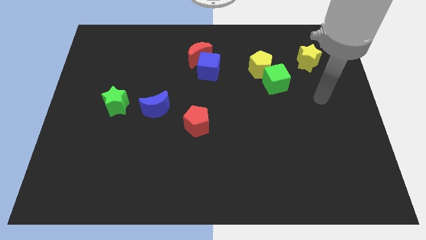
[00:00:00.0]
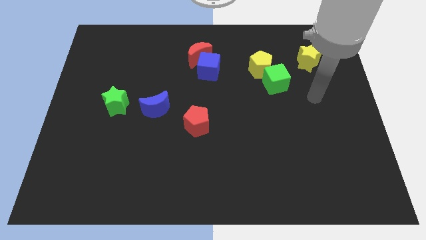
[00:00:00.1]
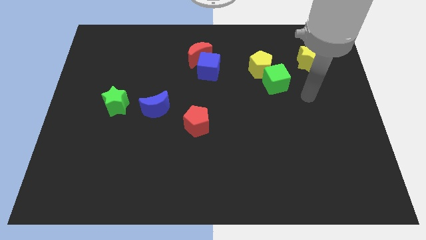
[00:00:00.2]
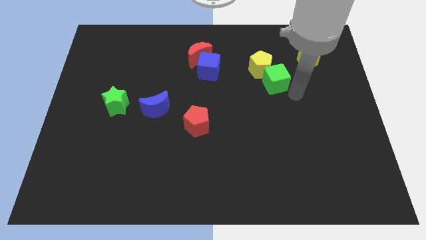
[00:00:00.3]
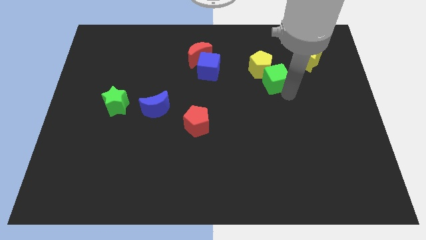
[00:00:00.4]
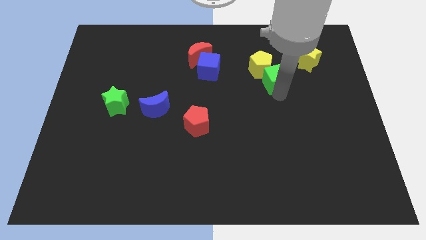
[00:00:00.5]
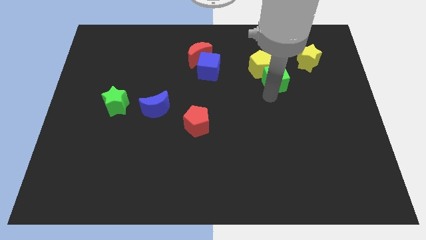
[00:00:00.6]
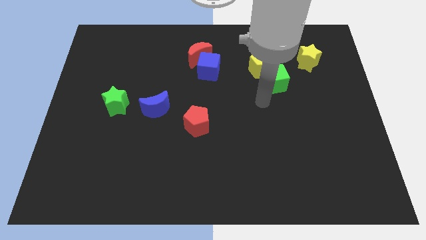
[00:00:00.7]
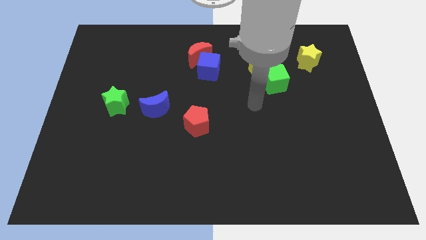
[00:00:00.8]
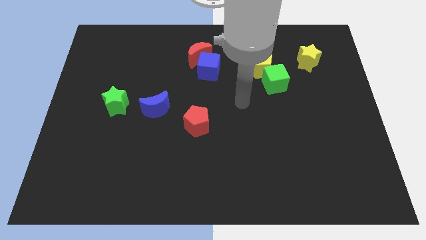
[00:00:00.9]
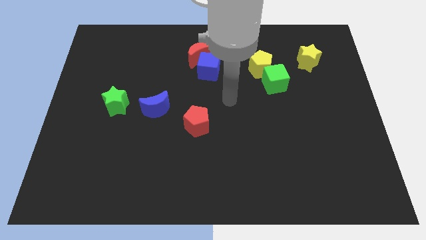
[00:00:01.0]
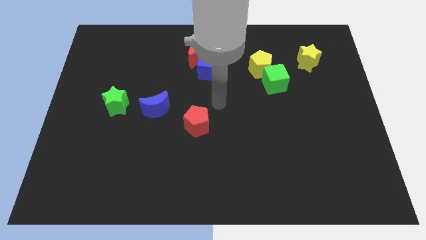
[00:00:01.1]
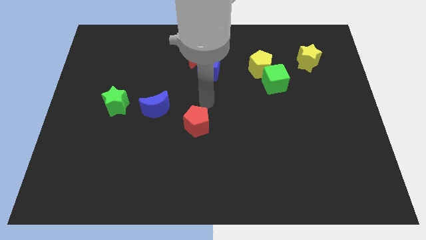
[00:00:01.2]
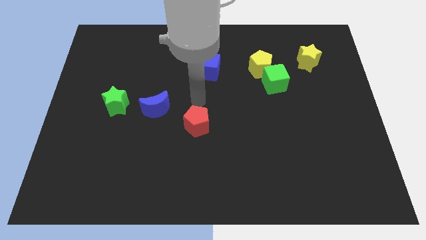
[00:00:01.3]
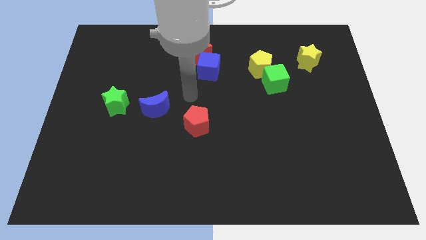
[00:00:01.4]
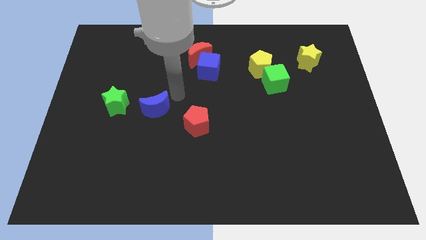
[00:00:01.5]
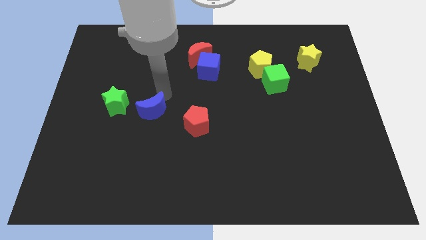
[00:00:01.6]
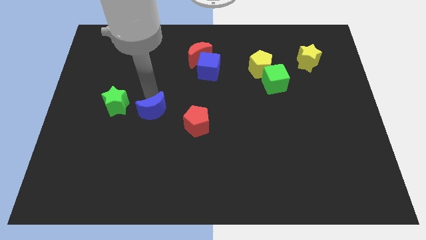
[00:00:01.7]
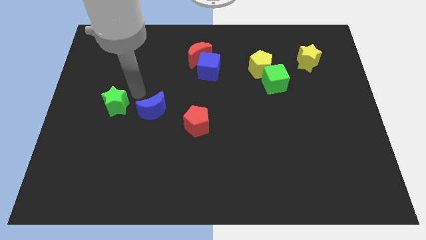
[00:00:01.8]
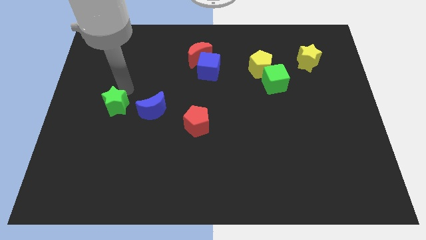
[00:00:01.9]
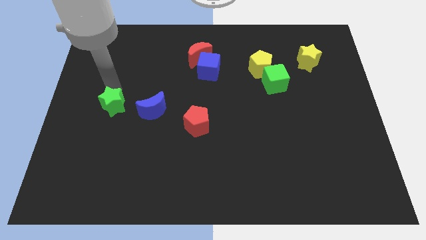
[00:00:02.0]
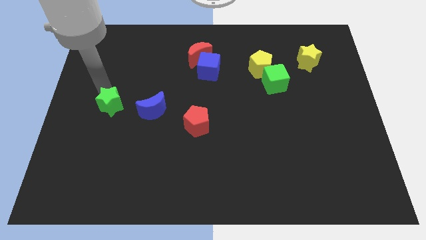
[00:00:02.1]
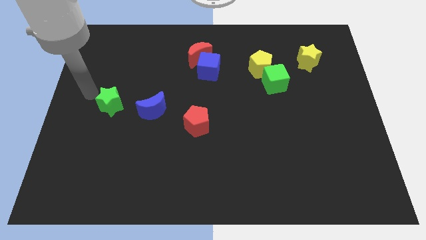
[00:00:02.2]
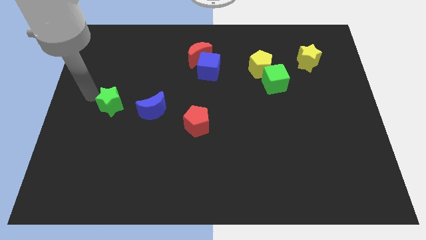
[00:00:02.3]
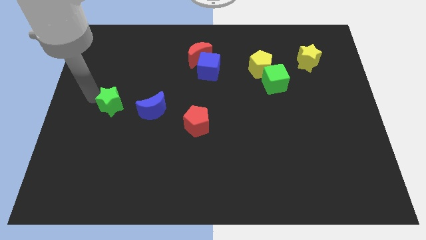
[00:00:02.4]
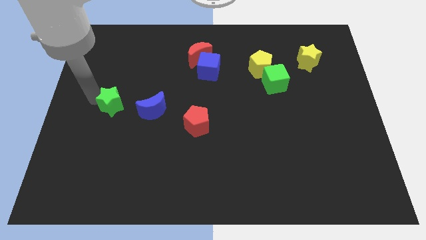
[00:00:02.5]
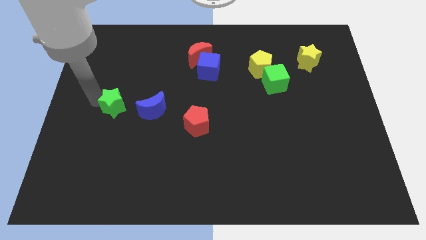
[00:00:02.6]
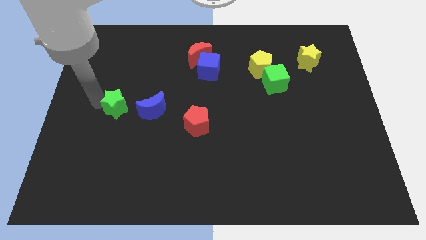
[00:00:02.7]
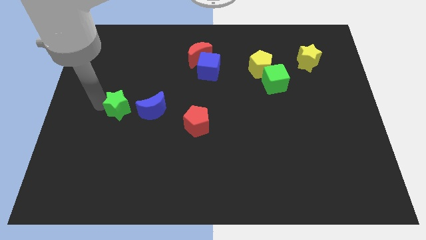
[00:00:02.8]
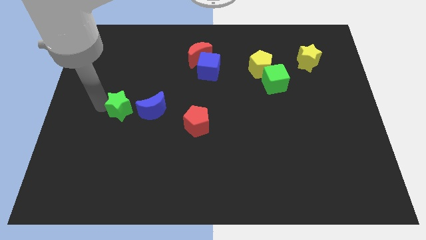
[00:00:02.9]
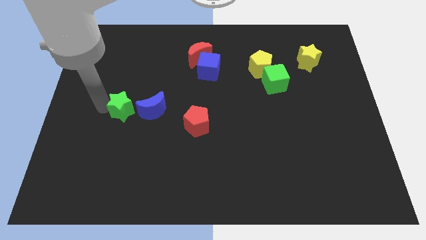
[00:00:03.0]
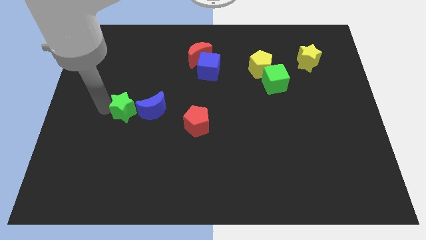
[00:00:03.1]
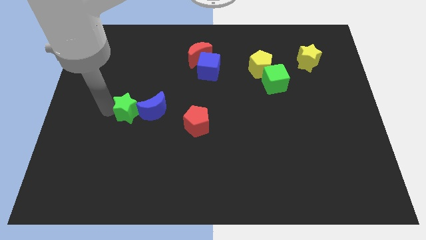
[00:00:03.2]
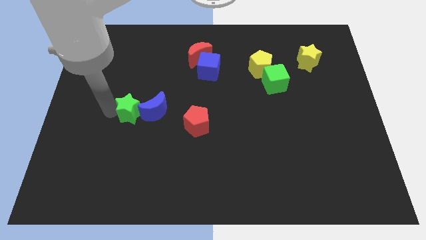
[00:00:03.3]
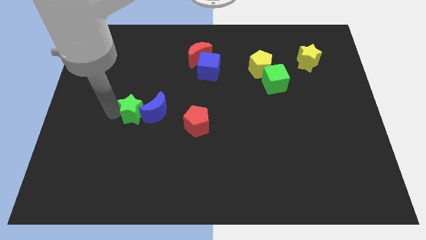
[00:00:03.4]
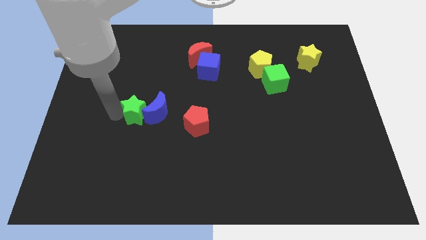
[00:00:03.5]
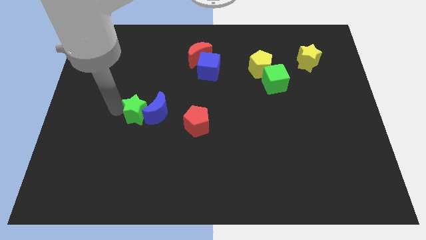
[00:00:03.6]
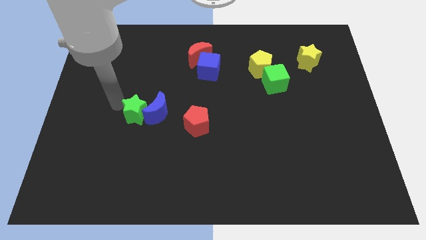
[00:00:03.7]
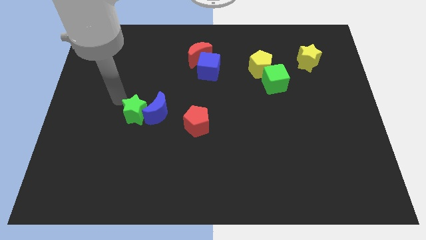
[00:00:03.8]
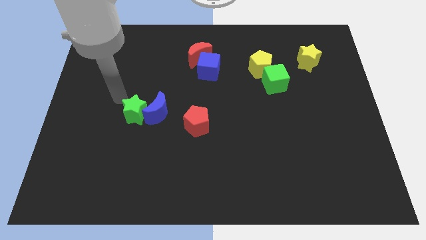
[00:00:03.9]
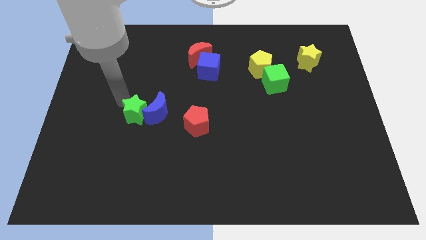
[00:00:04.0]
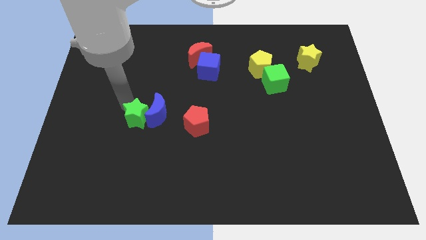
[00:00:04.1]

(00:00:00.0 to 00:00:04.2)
move the green star a little bit down and to the right diagonally

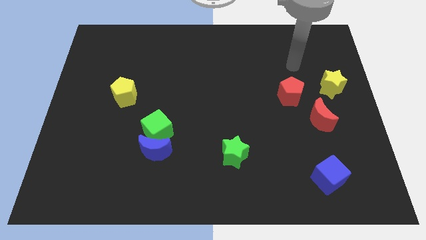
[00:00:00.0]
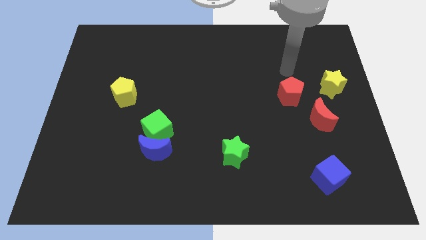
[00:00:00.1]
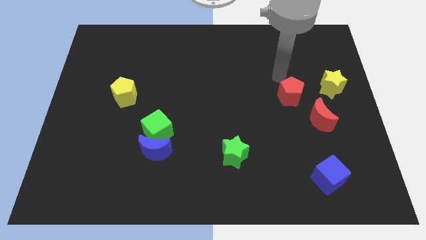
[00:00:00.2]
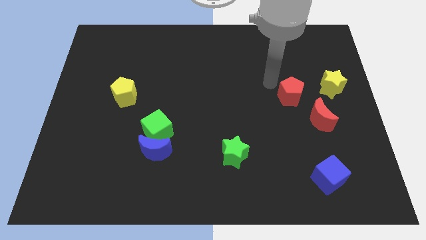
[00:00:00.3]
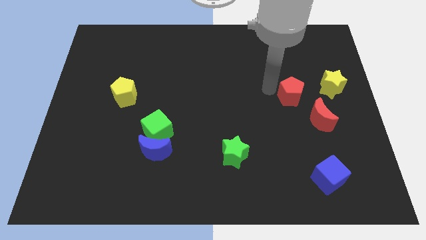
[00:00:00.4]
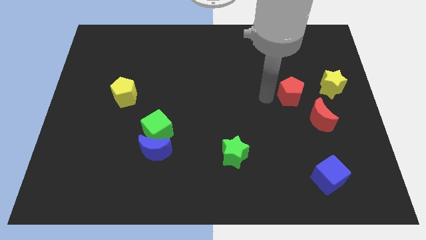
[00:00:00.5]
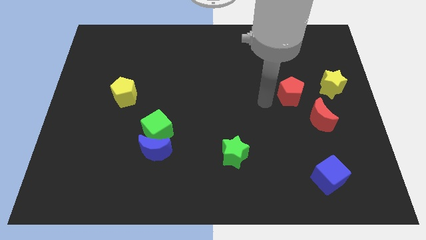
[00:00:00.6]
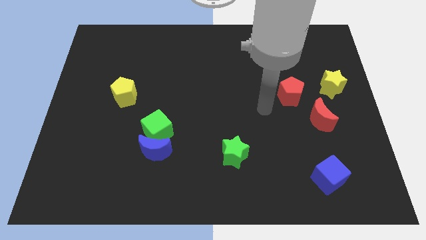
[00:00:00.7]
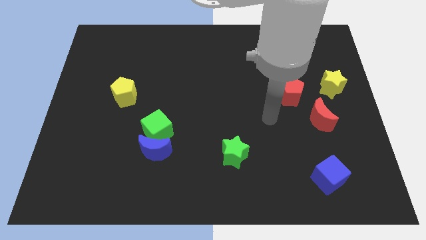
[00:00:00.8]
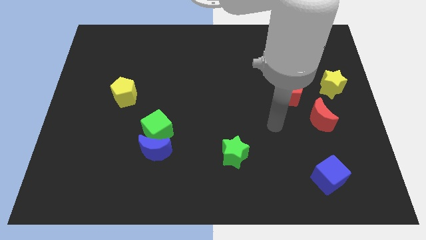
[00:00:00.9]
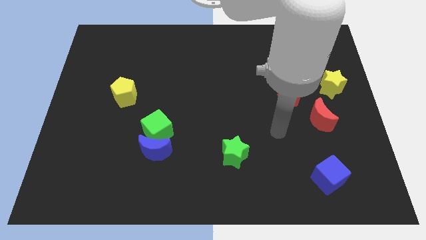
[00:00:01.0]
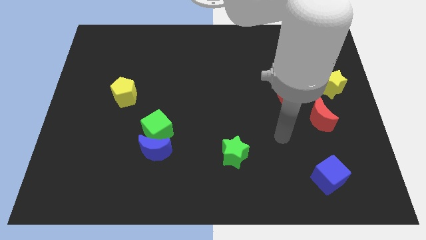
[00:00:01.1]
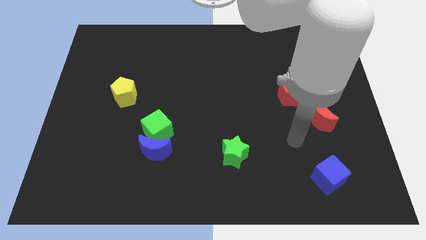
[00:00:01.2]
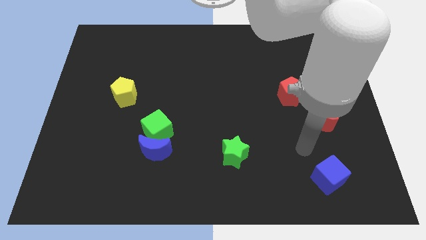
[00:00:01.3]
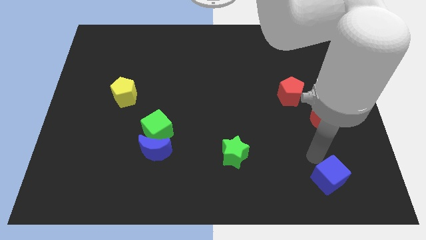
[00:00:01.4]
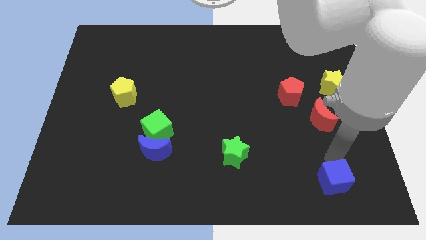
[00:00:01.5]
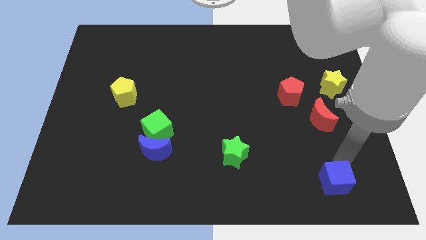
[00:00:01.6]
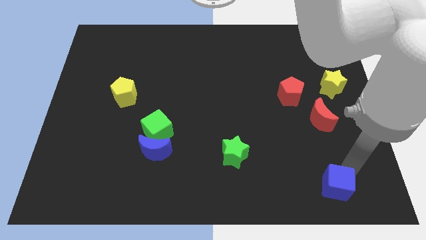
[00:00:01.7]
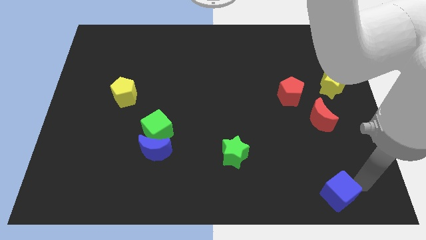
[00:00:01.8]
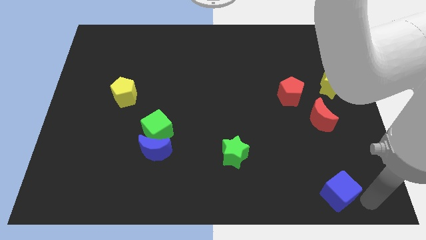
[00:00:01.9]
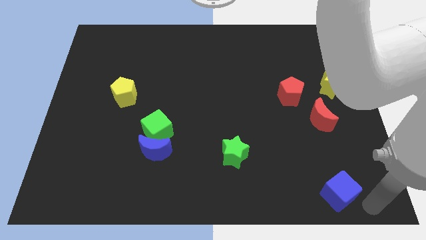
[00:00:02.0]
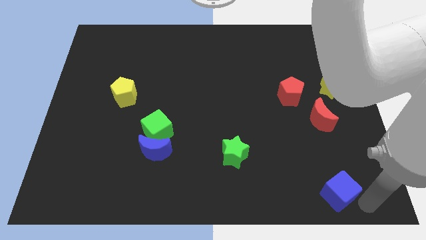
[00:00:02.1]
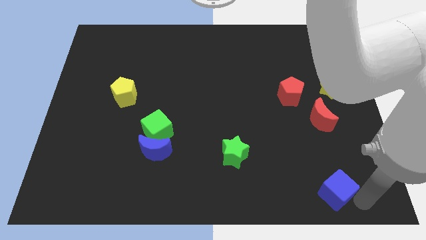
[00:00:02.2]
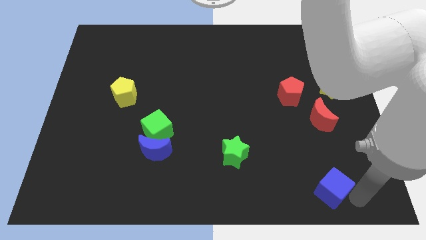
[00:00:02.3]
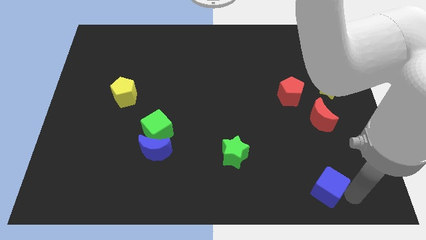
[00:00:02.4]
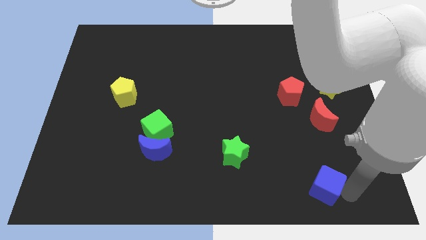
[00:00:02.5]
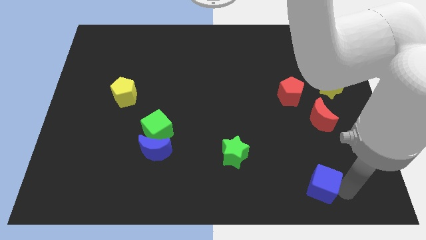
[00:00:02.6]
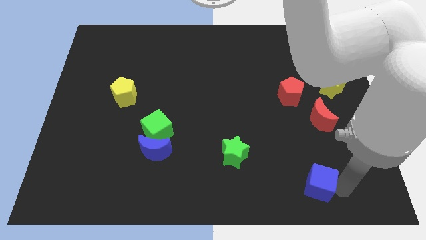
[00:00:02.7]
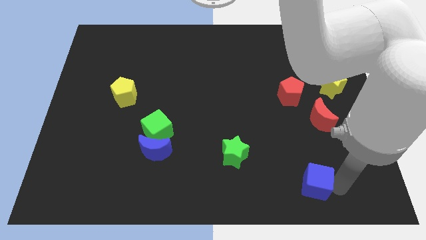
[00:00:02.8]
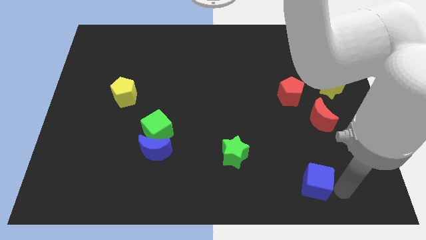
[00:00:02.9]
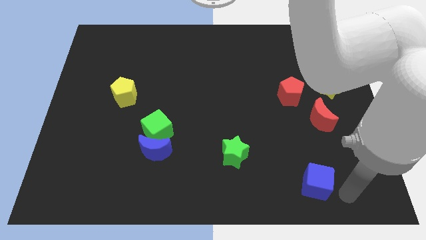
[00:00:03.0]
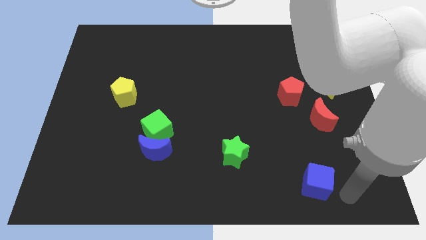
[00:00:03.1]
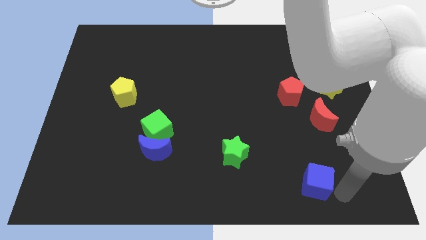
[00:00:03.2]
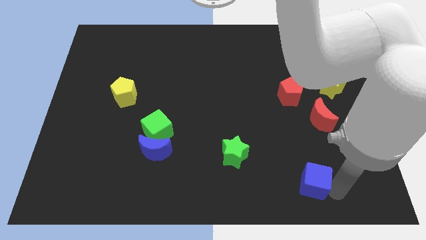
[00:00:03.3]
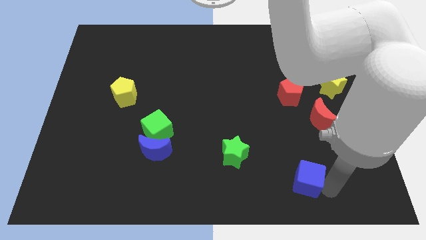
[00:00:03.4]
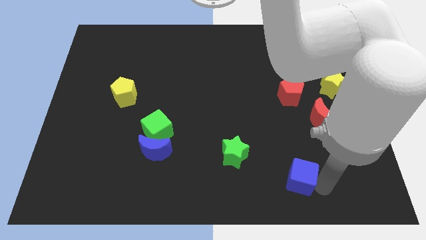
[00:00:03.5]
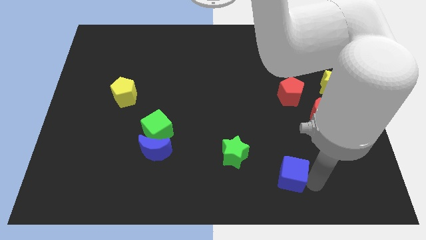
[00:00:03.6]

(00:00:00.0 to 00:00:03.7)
move the blue cube left somewhat

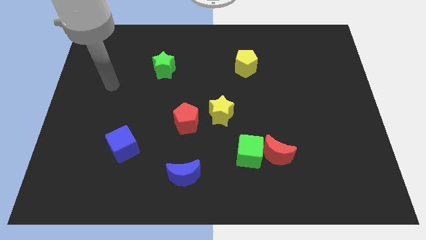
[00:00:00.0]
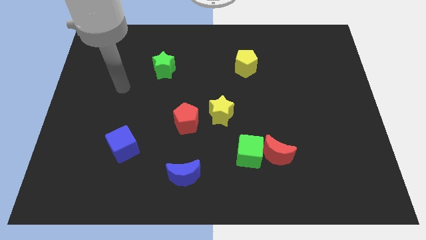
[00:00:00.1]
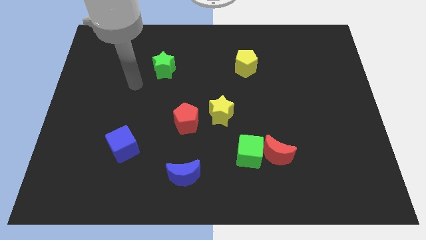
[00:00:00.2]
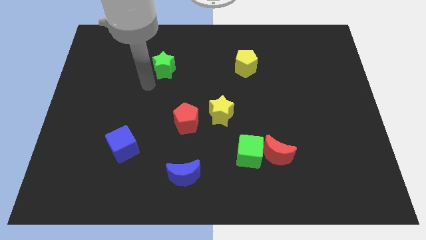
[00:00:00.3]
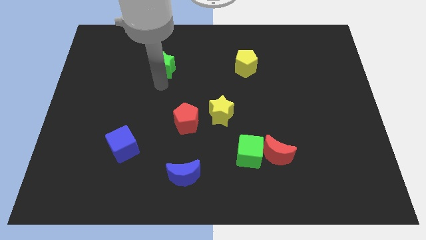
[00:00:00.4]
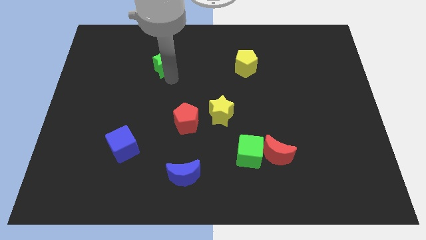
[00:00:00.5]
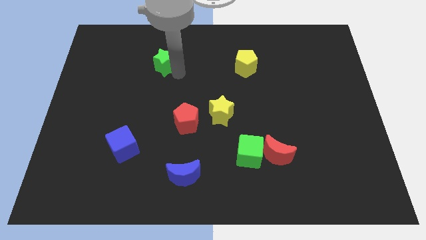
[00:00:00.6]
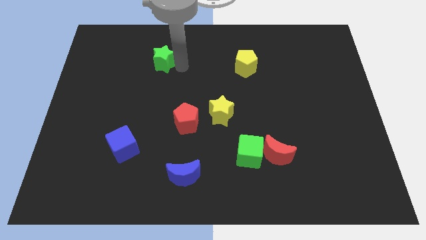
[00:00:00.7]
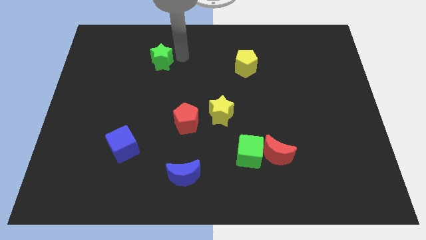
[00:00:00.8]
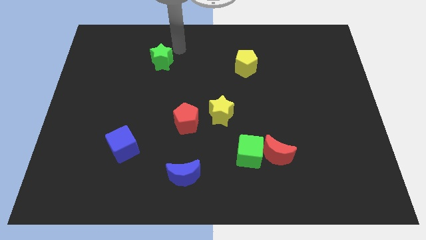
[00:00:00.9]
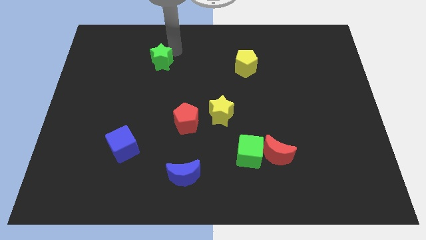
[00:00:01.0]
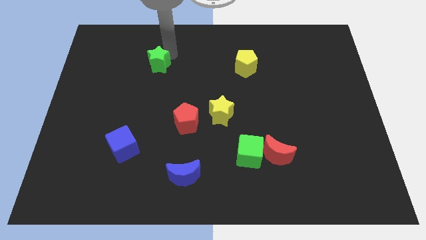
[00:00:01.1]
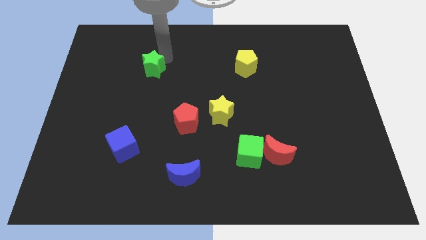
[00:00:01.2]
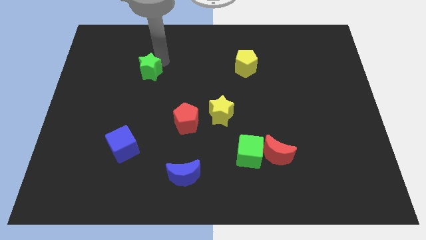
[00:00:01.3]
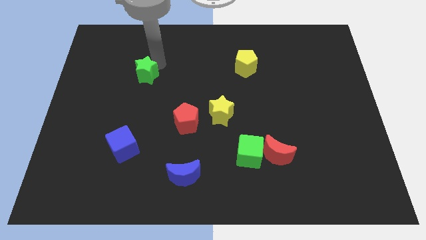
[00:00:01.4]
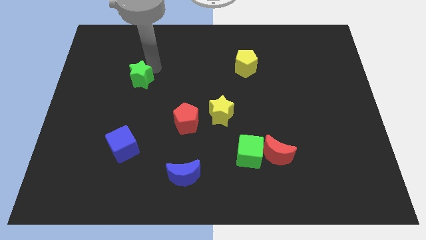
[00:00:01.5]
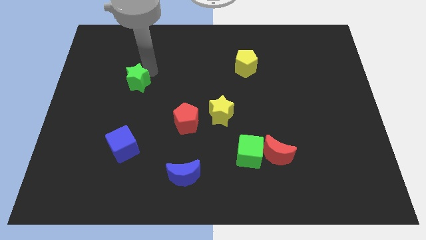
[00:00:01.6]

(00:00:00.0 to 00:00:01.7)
push the green star a little downwards and then left
